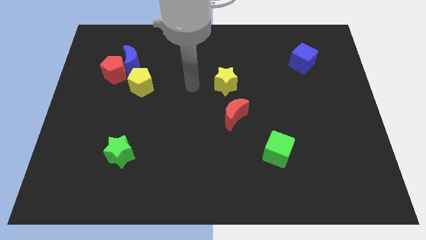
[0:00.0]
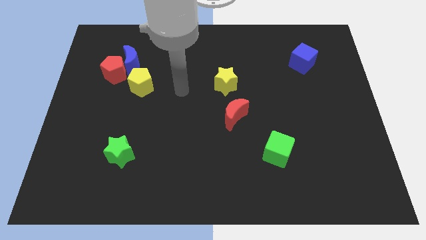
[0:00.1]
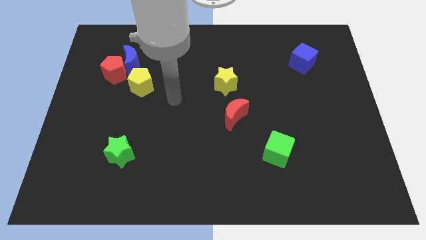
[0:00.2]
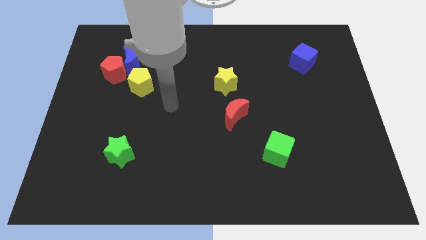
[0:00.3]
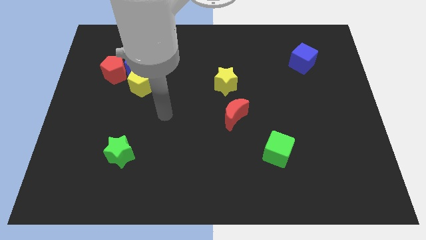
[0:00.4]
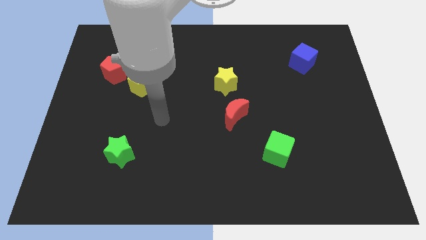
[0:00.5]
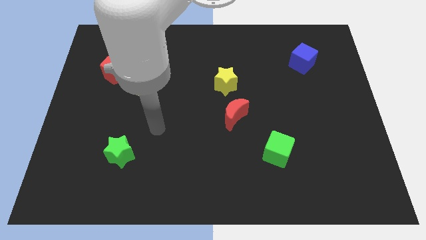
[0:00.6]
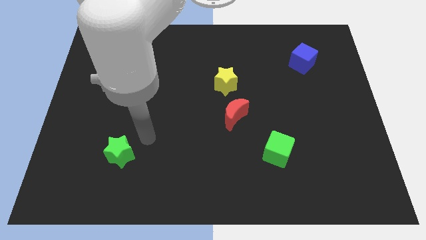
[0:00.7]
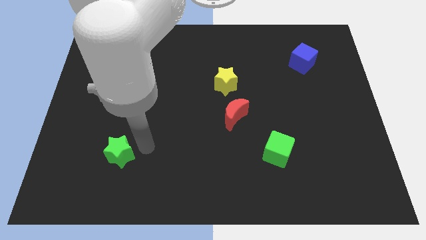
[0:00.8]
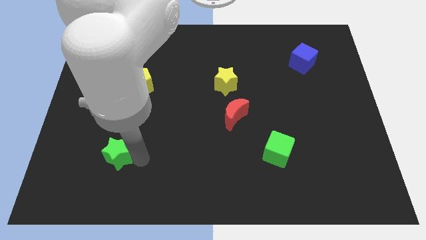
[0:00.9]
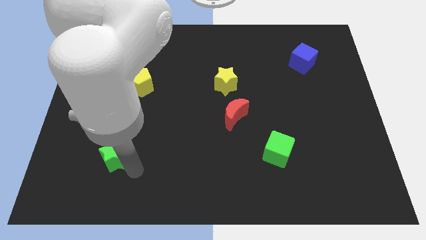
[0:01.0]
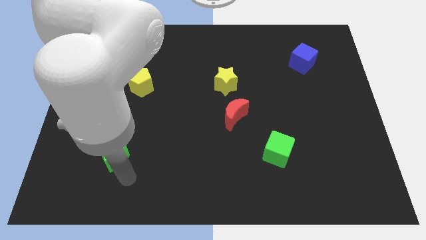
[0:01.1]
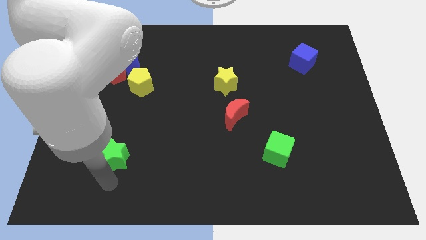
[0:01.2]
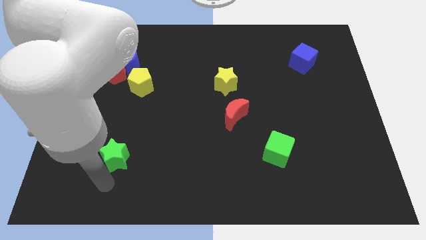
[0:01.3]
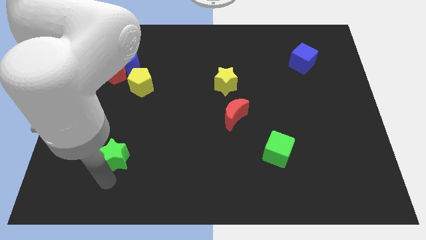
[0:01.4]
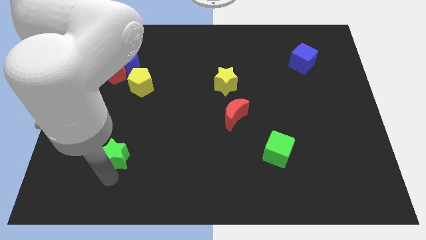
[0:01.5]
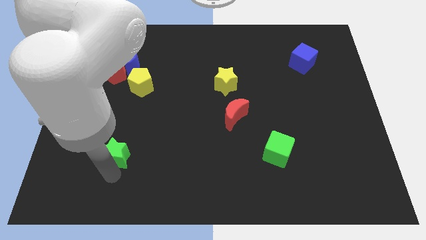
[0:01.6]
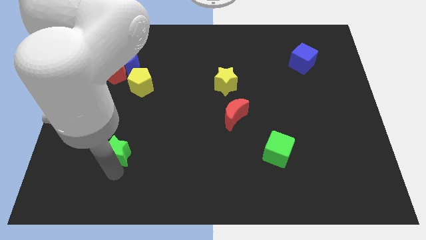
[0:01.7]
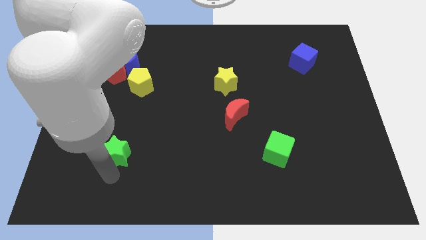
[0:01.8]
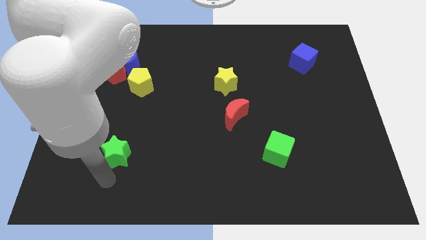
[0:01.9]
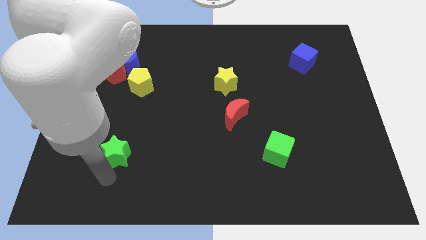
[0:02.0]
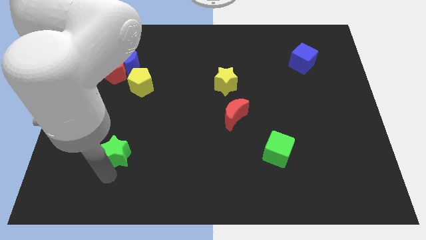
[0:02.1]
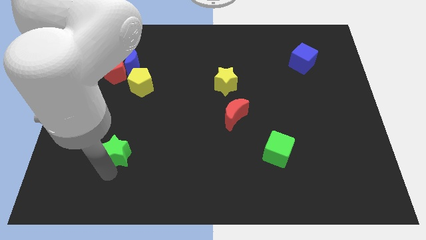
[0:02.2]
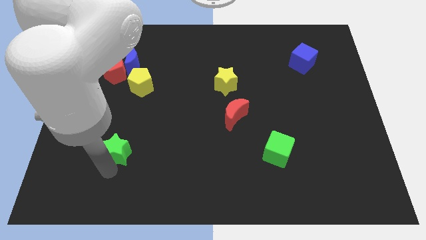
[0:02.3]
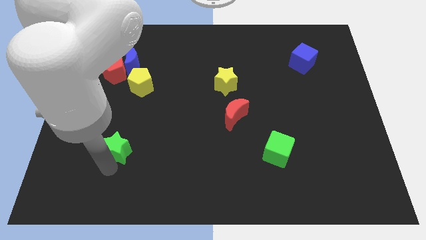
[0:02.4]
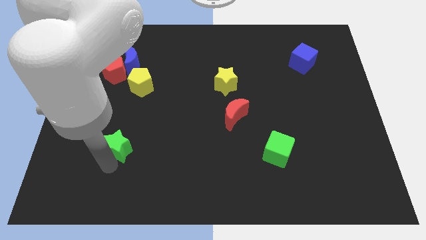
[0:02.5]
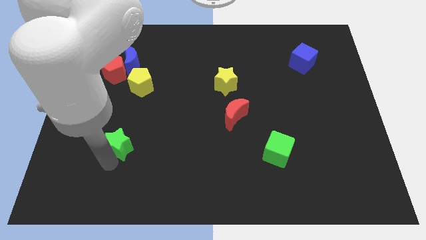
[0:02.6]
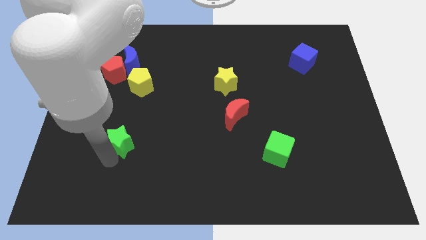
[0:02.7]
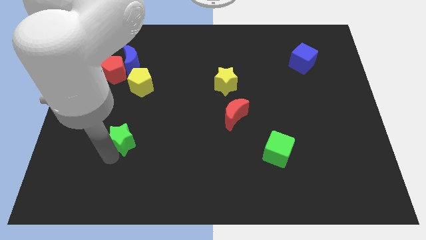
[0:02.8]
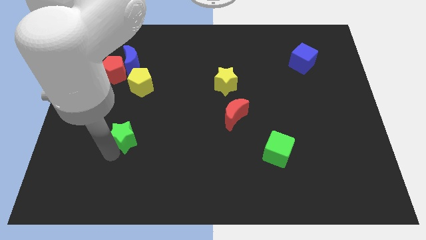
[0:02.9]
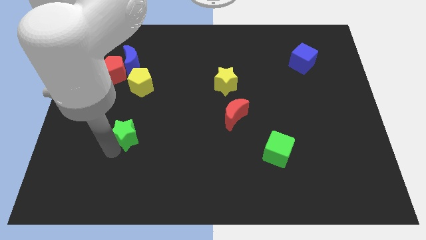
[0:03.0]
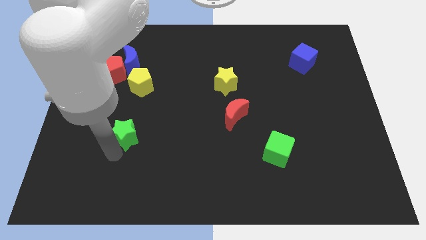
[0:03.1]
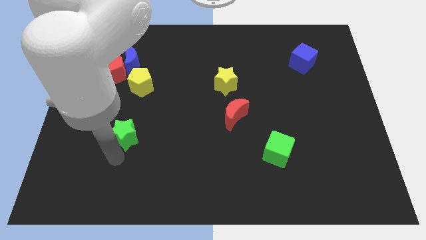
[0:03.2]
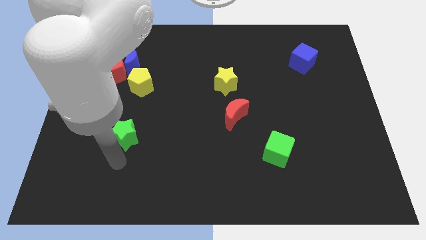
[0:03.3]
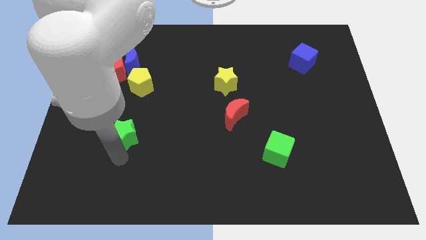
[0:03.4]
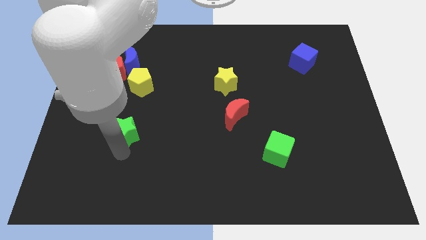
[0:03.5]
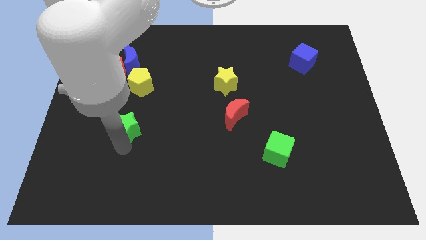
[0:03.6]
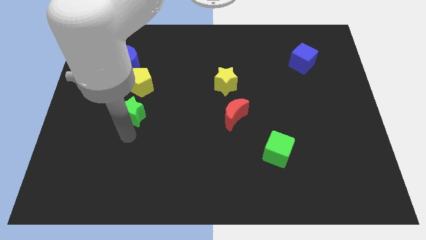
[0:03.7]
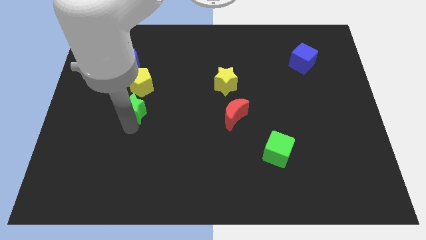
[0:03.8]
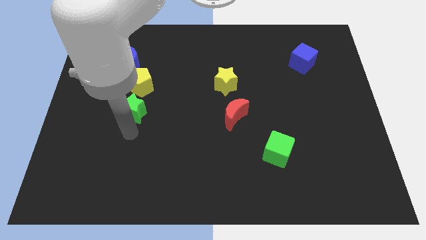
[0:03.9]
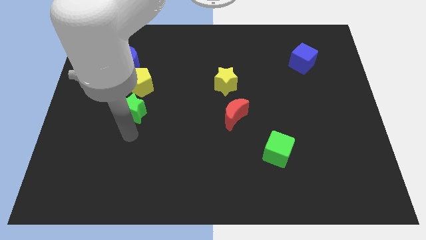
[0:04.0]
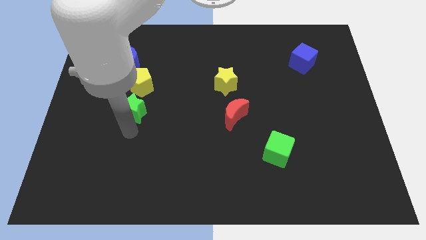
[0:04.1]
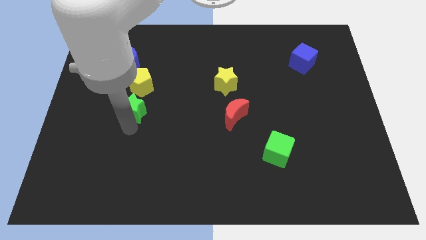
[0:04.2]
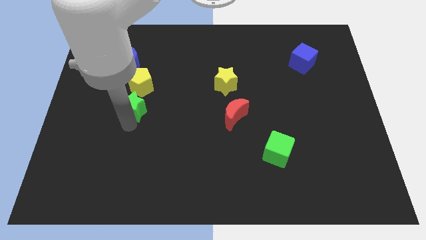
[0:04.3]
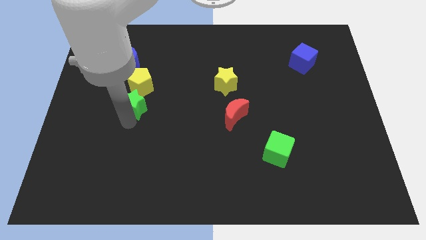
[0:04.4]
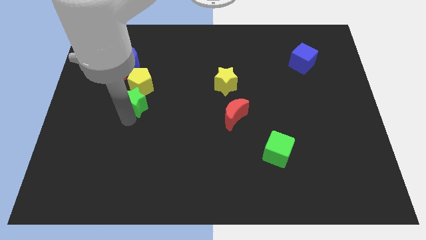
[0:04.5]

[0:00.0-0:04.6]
put the green star towards the yellow pentagon

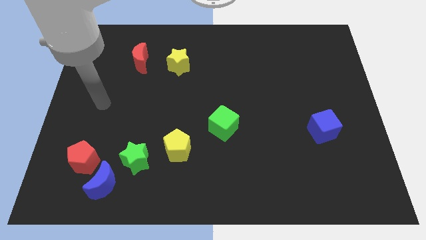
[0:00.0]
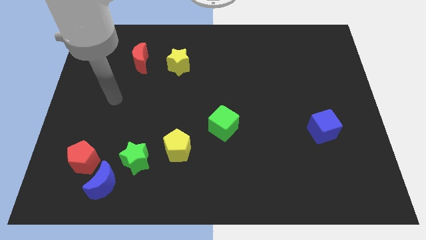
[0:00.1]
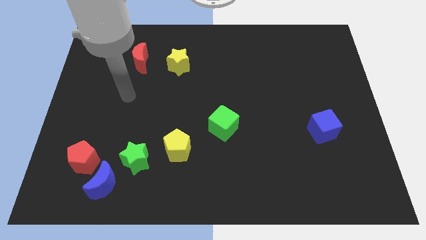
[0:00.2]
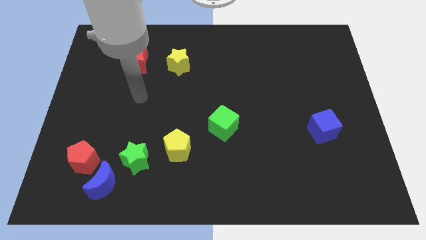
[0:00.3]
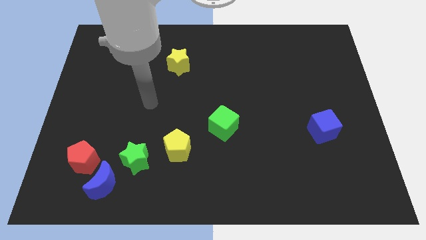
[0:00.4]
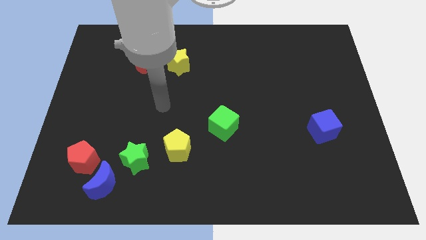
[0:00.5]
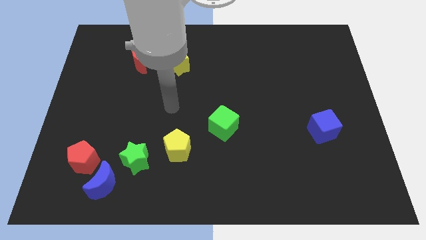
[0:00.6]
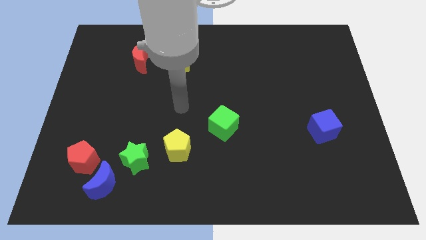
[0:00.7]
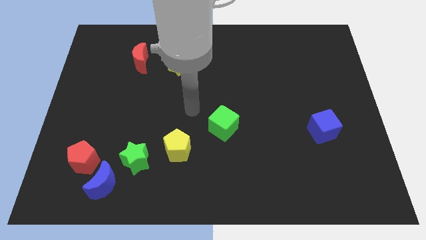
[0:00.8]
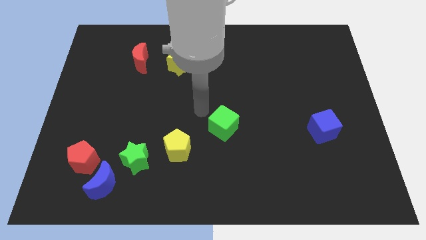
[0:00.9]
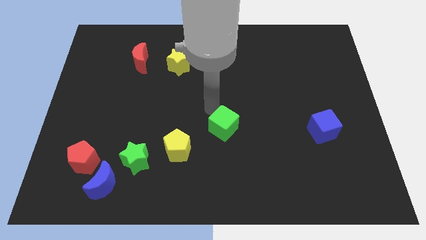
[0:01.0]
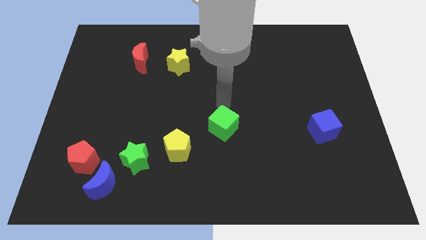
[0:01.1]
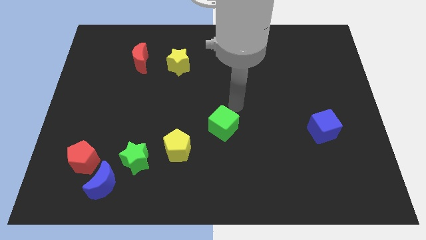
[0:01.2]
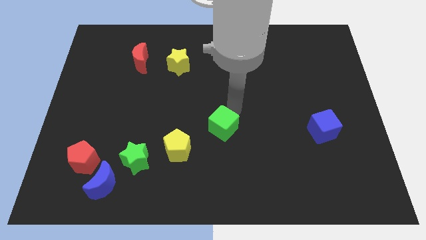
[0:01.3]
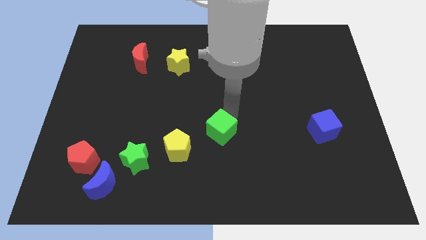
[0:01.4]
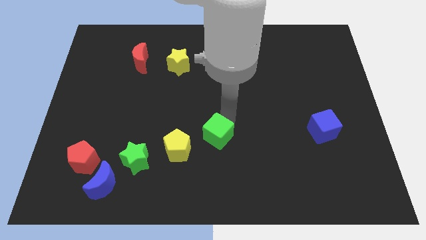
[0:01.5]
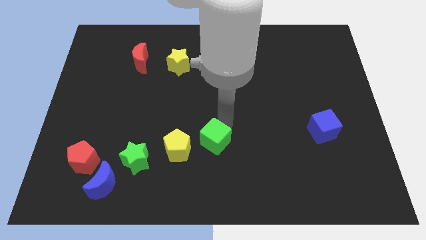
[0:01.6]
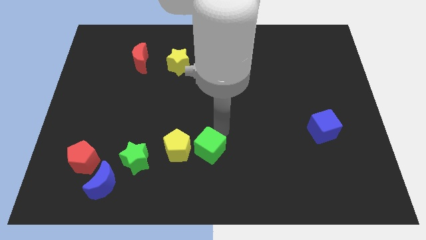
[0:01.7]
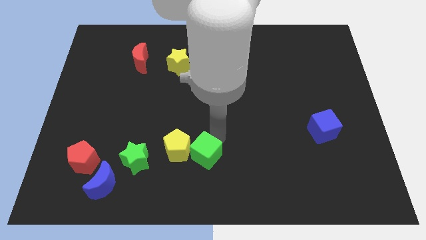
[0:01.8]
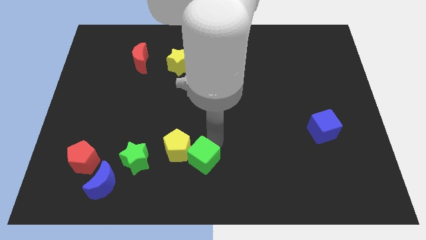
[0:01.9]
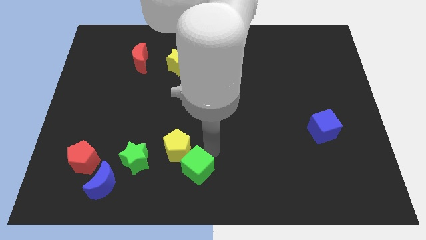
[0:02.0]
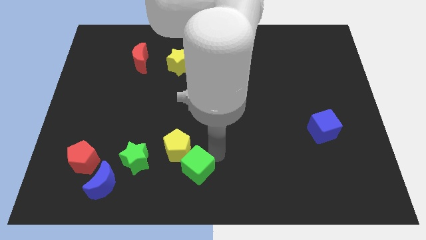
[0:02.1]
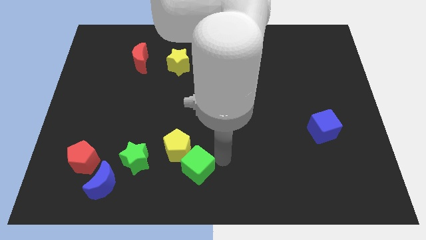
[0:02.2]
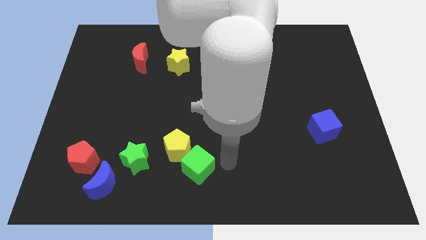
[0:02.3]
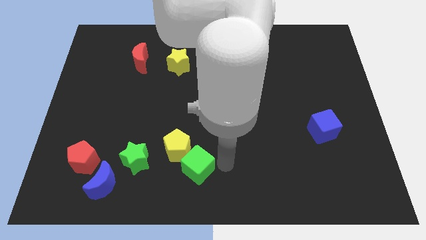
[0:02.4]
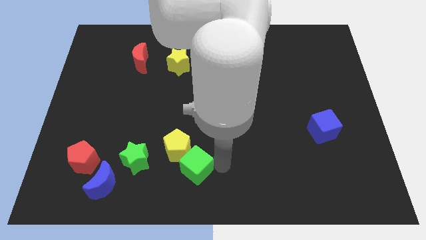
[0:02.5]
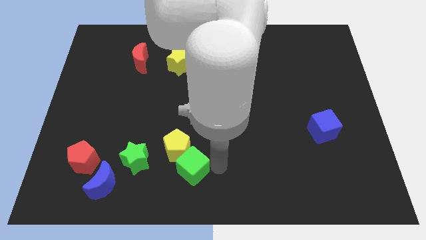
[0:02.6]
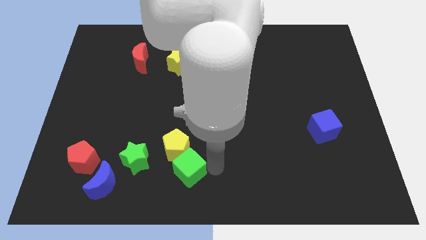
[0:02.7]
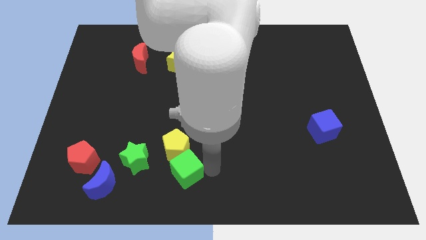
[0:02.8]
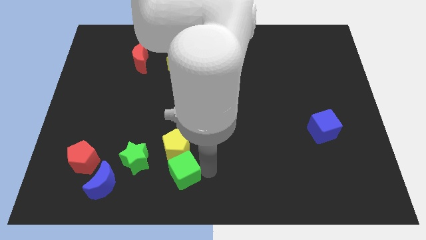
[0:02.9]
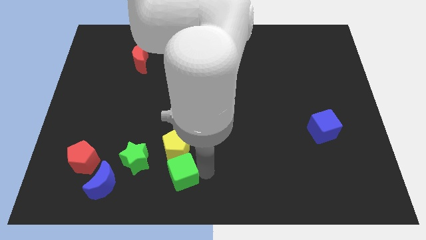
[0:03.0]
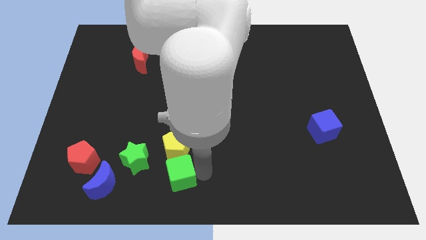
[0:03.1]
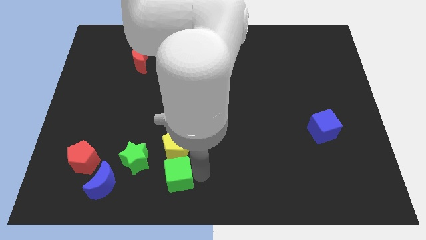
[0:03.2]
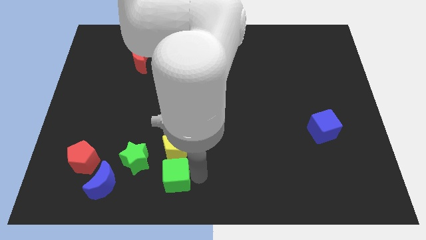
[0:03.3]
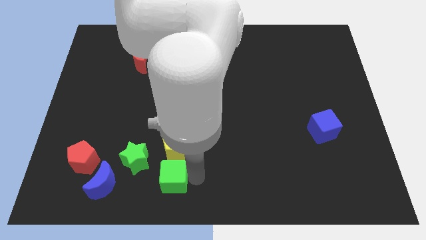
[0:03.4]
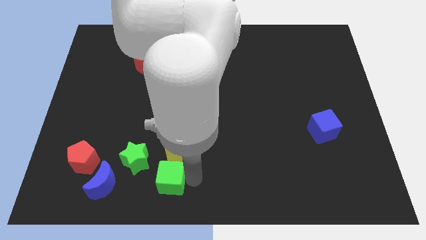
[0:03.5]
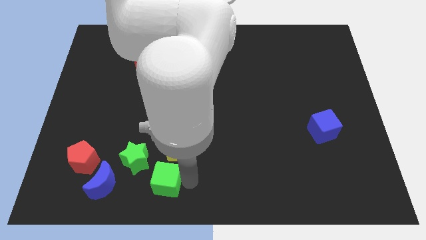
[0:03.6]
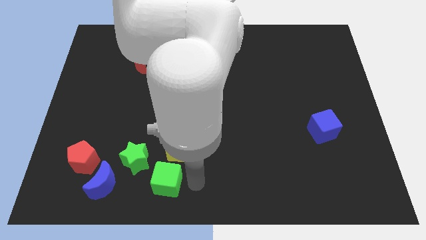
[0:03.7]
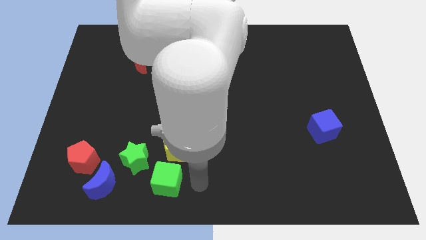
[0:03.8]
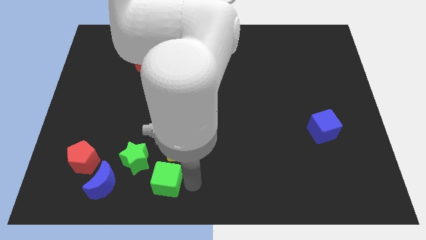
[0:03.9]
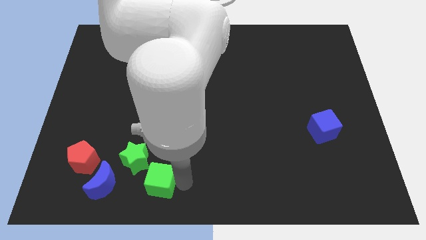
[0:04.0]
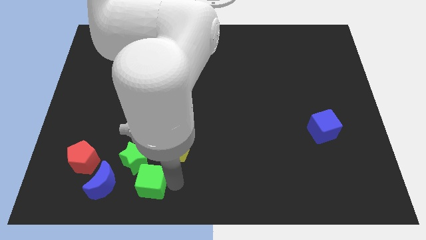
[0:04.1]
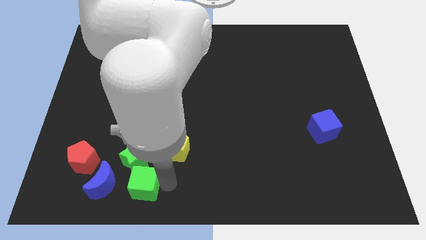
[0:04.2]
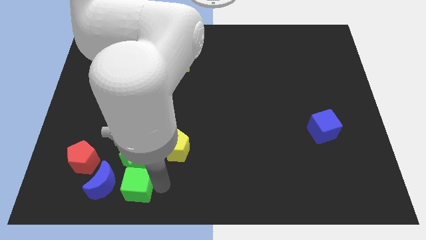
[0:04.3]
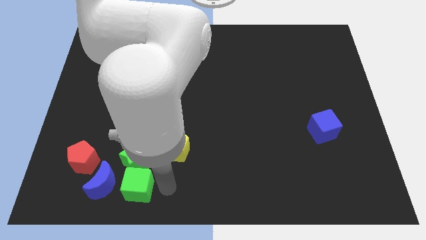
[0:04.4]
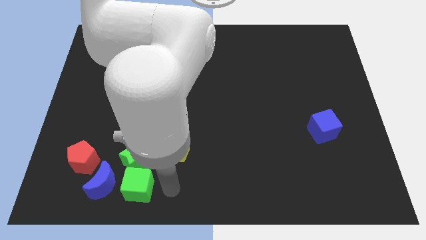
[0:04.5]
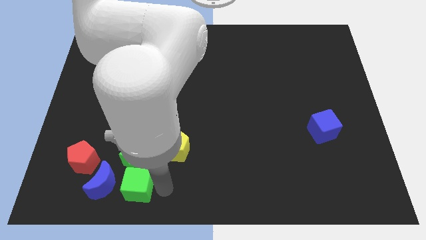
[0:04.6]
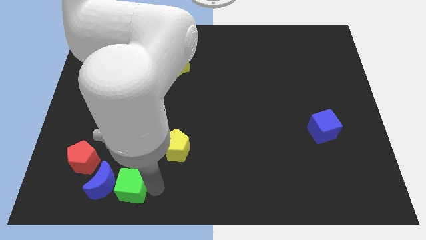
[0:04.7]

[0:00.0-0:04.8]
put the green cube towards the blue moon
